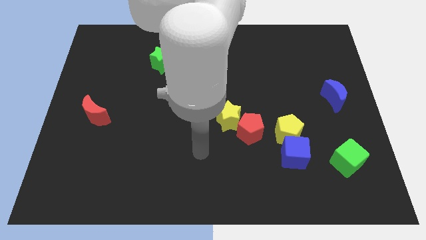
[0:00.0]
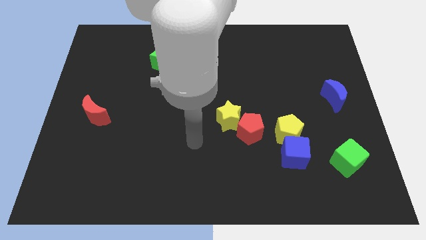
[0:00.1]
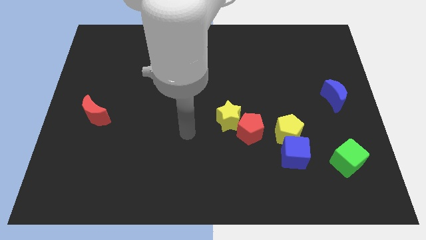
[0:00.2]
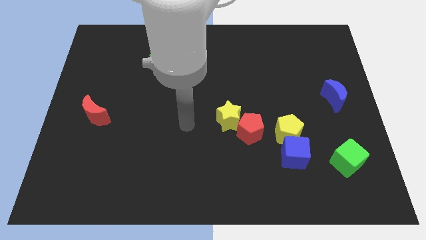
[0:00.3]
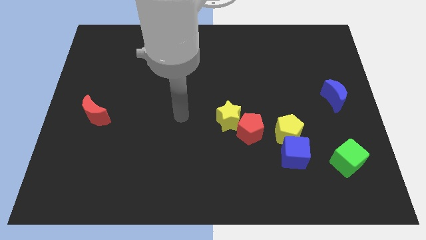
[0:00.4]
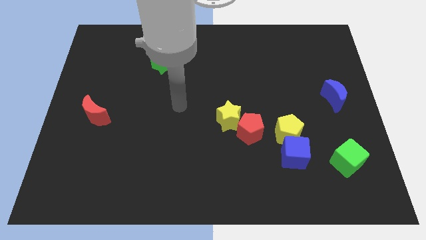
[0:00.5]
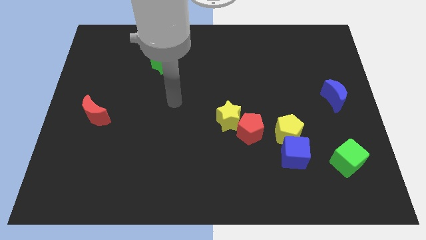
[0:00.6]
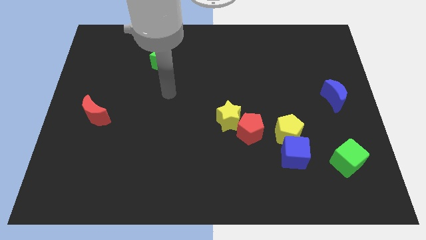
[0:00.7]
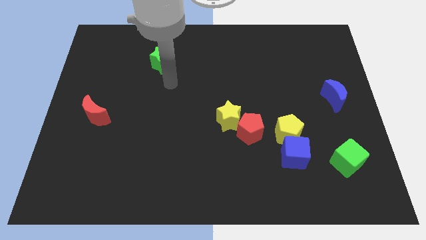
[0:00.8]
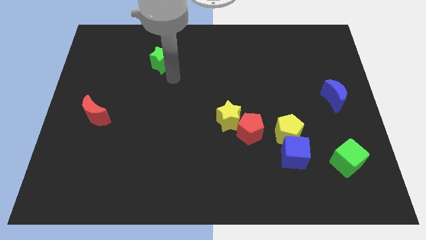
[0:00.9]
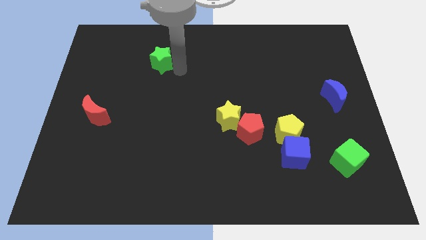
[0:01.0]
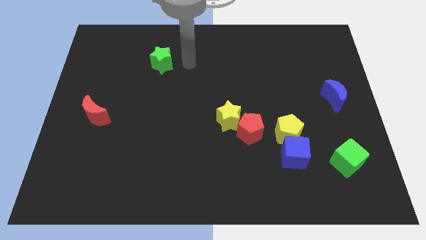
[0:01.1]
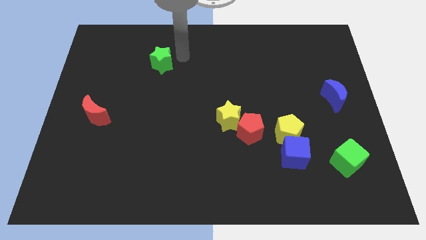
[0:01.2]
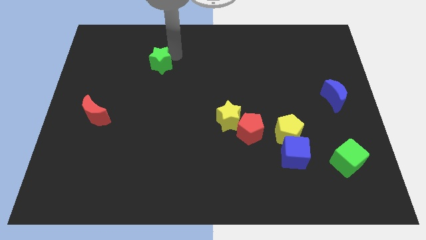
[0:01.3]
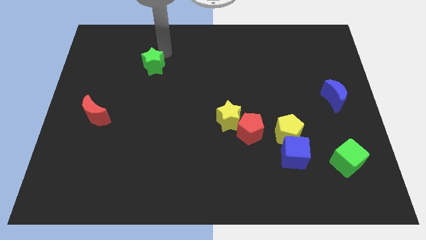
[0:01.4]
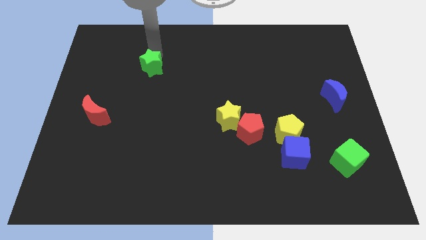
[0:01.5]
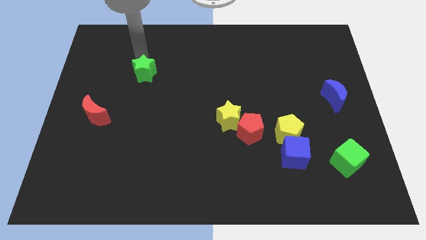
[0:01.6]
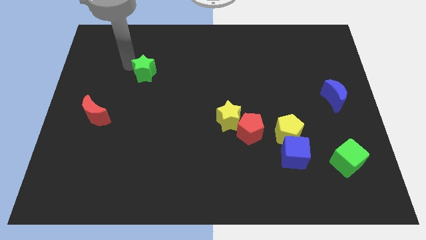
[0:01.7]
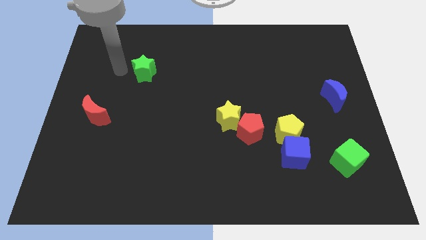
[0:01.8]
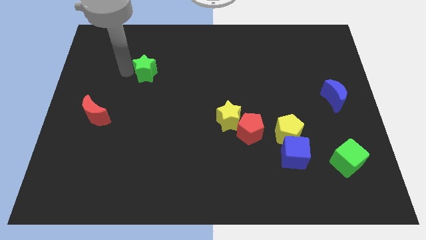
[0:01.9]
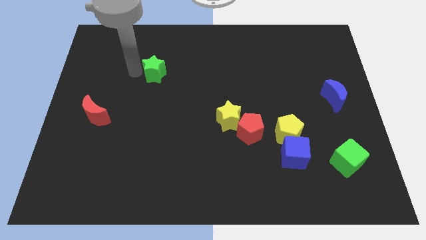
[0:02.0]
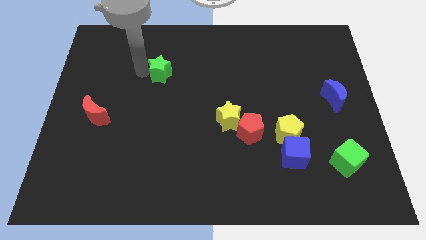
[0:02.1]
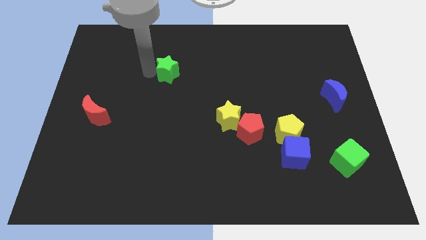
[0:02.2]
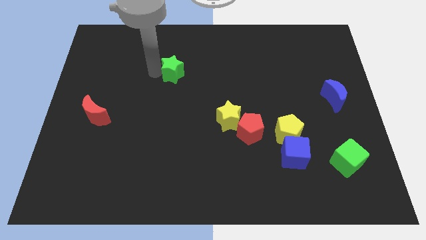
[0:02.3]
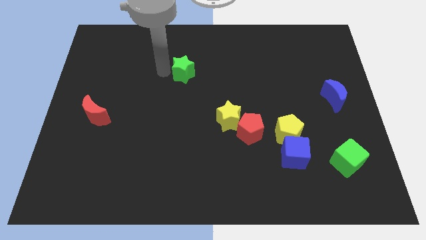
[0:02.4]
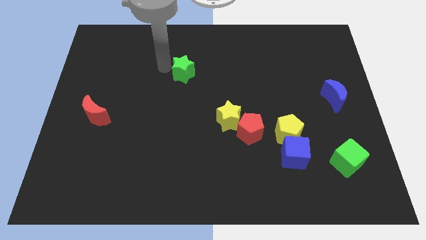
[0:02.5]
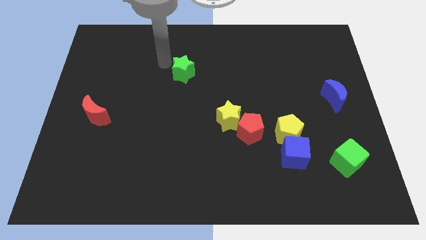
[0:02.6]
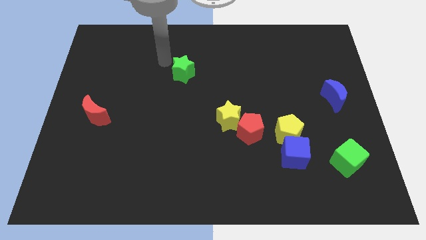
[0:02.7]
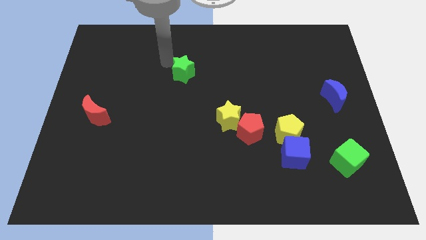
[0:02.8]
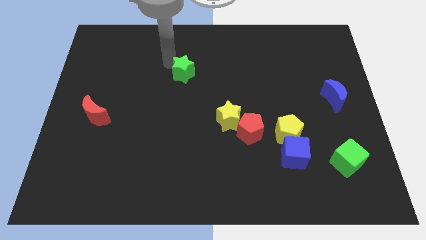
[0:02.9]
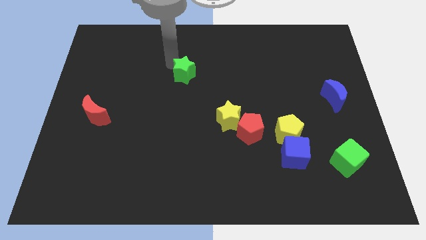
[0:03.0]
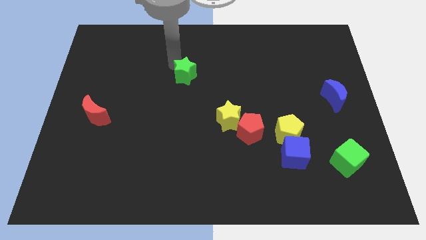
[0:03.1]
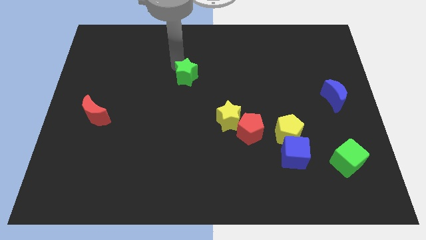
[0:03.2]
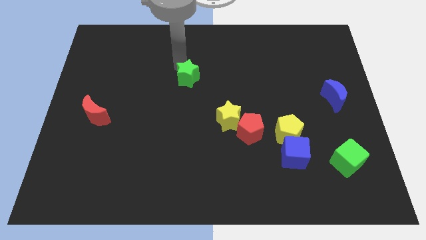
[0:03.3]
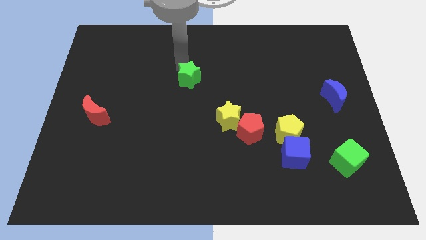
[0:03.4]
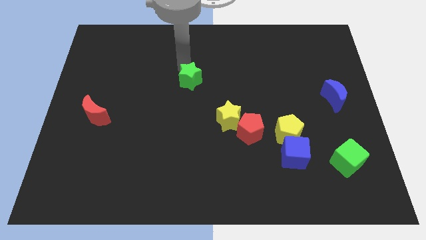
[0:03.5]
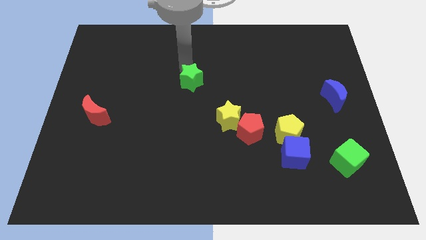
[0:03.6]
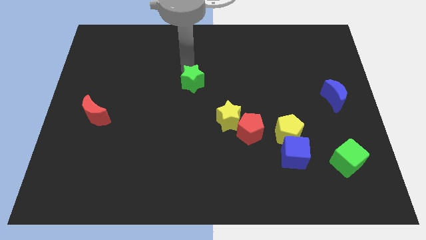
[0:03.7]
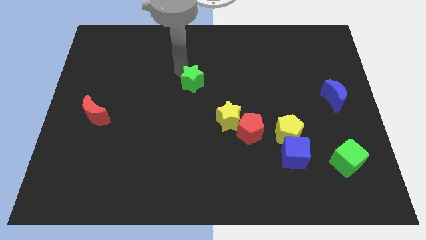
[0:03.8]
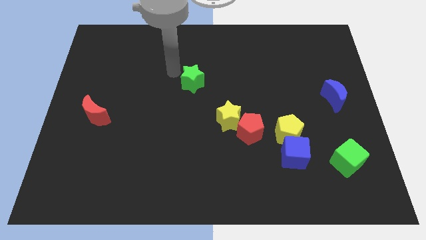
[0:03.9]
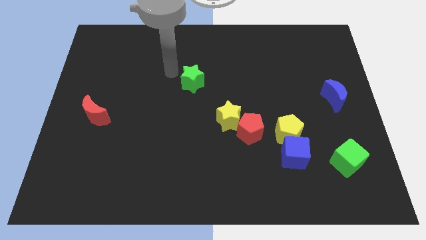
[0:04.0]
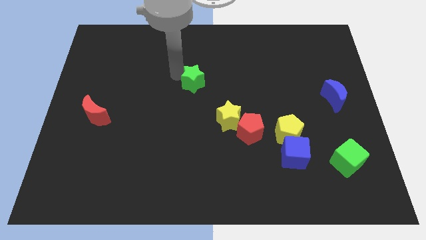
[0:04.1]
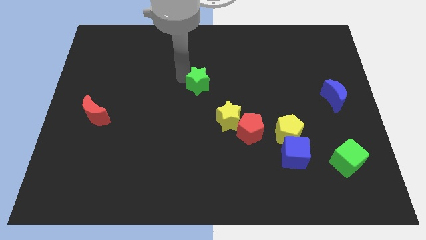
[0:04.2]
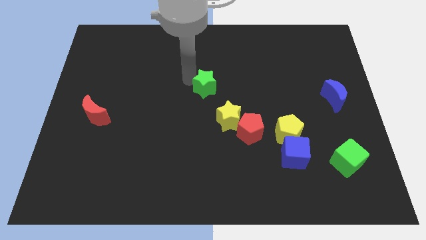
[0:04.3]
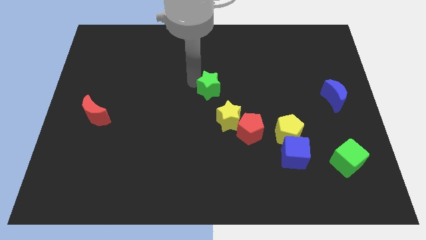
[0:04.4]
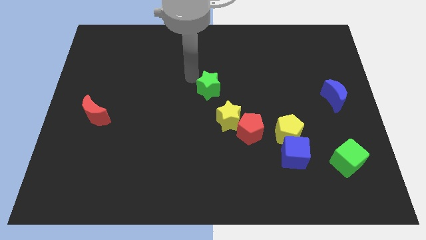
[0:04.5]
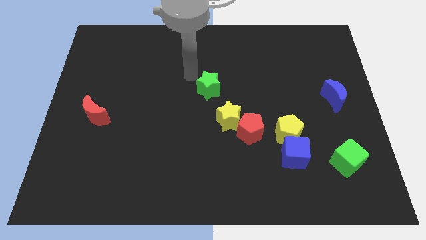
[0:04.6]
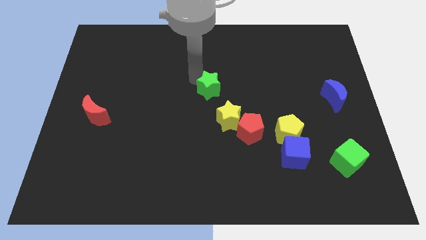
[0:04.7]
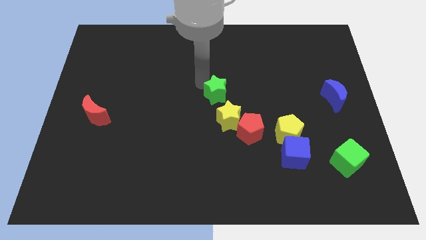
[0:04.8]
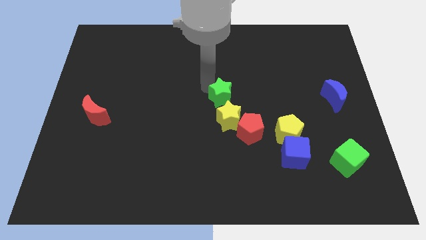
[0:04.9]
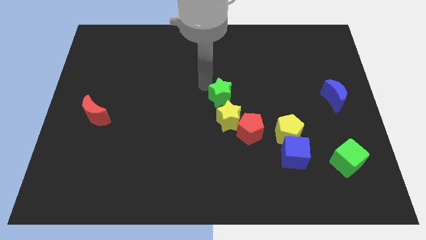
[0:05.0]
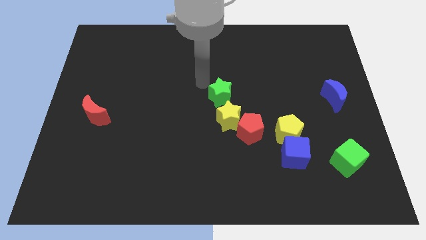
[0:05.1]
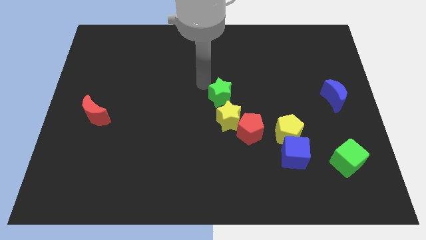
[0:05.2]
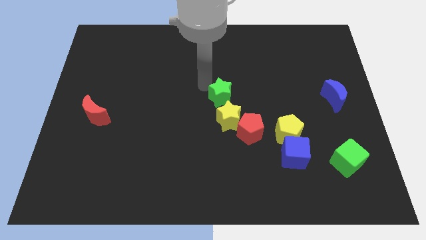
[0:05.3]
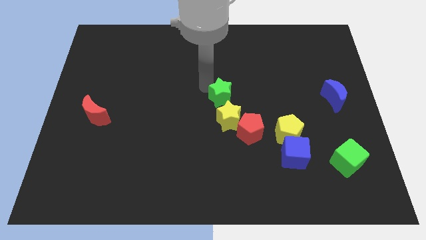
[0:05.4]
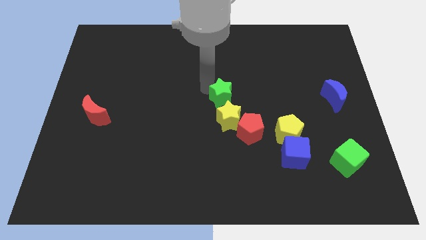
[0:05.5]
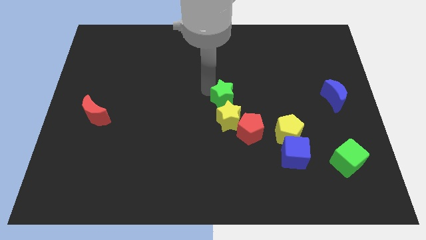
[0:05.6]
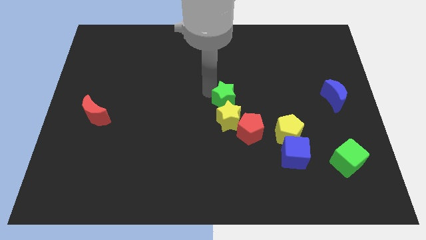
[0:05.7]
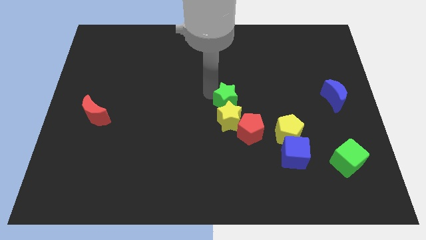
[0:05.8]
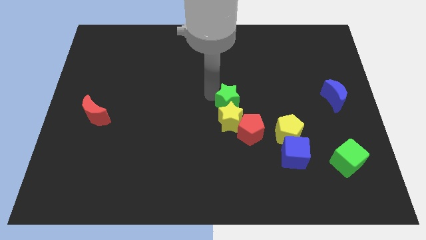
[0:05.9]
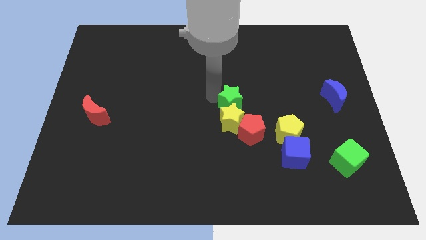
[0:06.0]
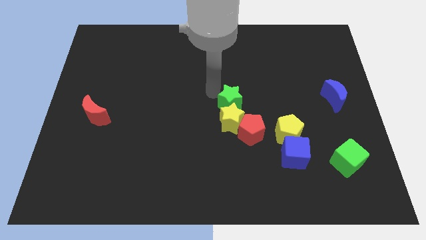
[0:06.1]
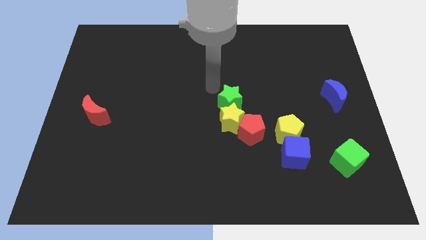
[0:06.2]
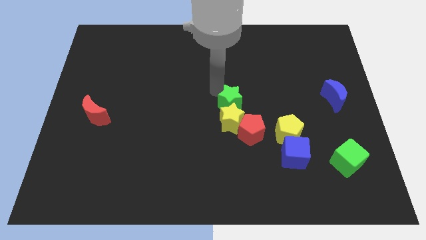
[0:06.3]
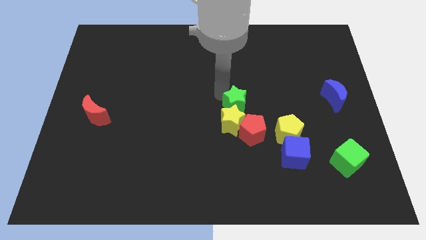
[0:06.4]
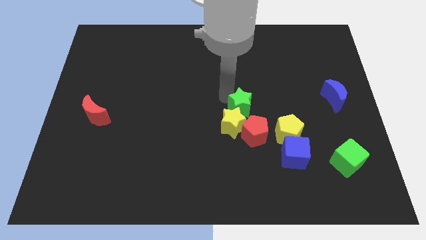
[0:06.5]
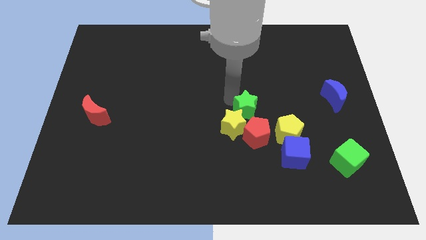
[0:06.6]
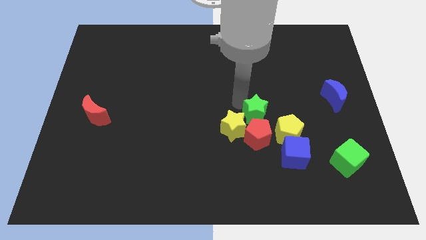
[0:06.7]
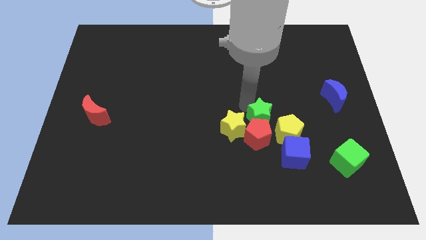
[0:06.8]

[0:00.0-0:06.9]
put the green star next to the red pentagon

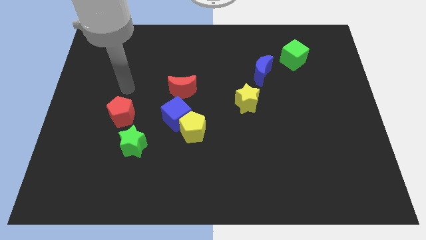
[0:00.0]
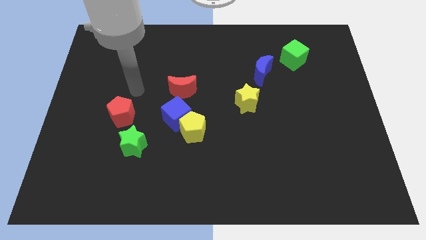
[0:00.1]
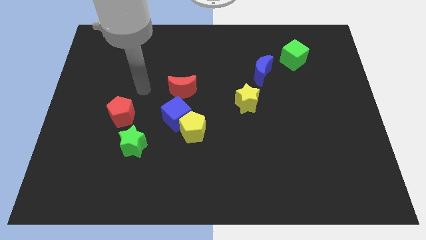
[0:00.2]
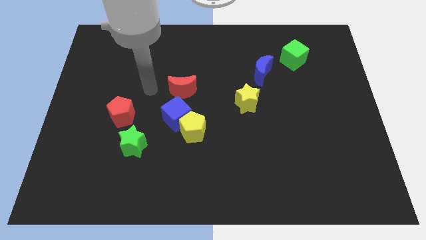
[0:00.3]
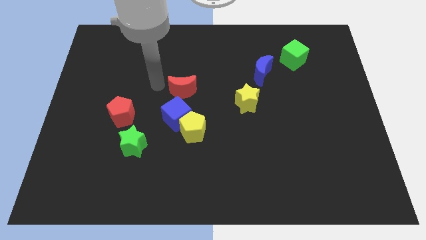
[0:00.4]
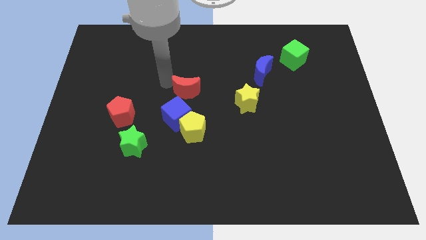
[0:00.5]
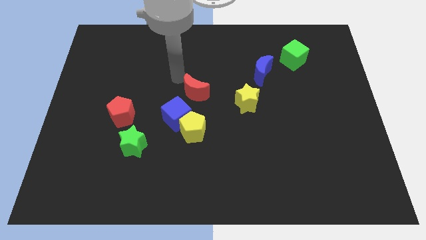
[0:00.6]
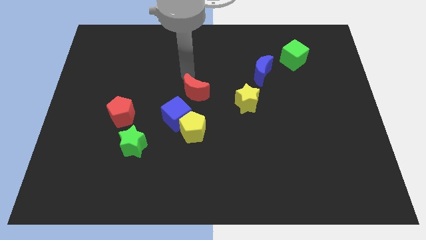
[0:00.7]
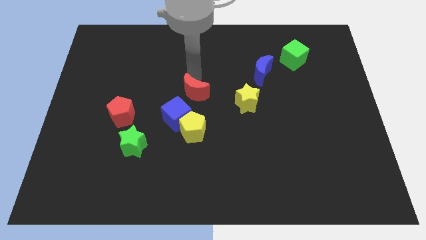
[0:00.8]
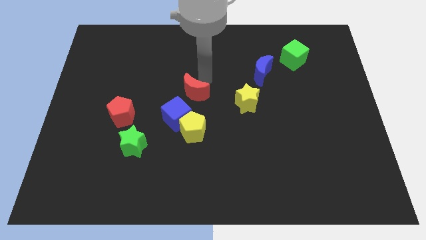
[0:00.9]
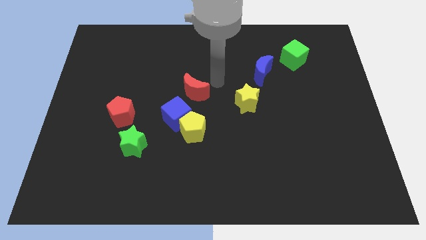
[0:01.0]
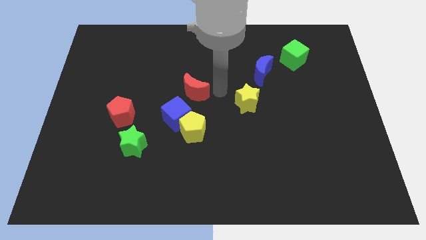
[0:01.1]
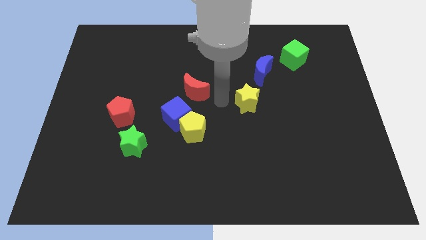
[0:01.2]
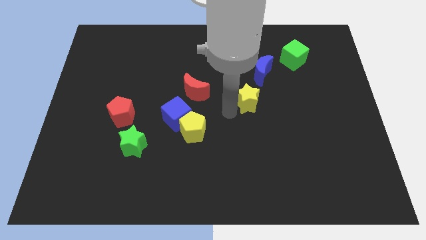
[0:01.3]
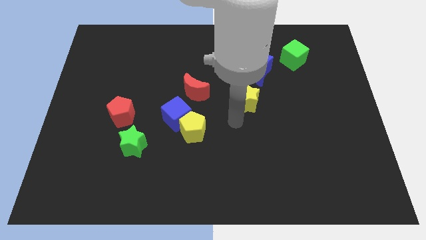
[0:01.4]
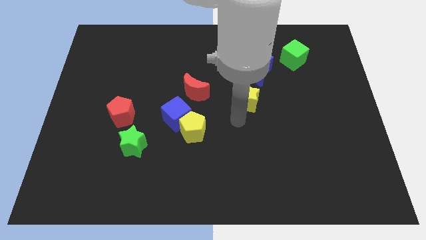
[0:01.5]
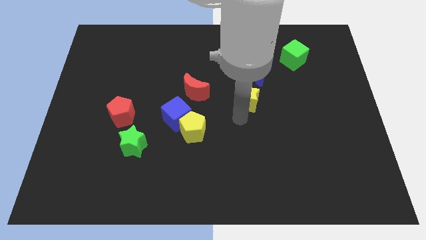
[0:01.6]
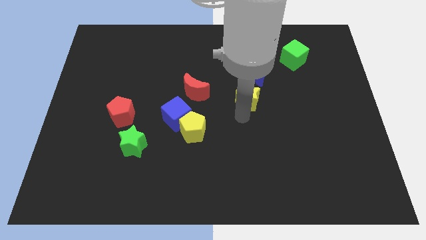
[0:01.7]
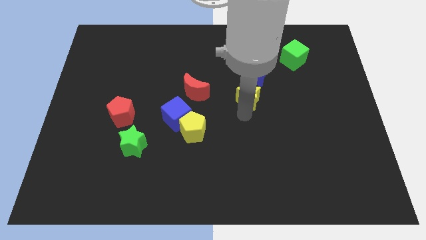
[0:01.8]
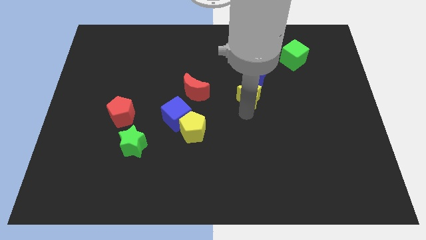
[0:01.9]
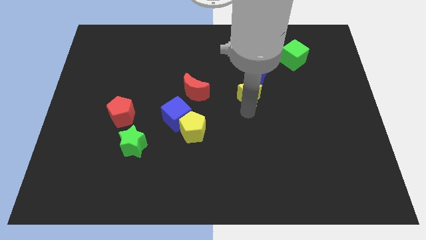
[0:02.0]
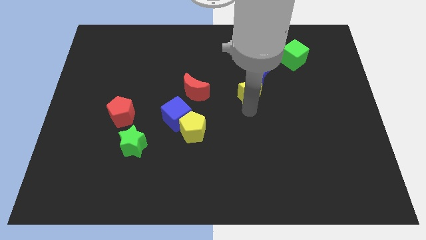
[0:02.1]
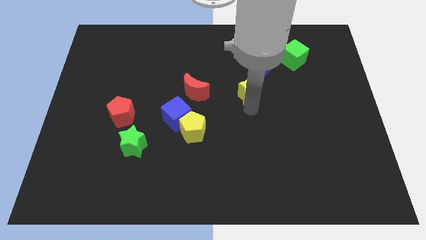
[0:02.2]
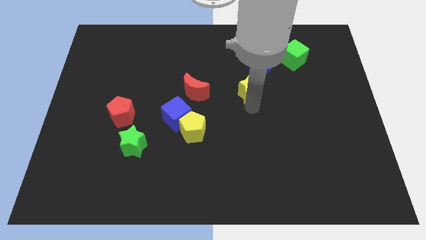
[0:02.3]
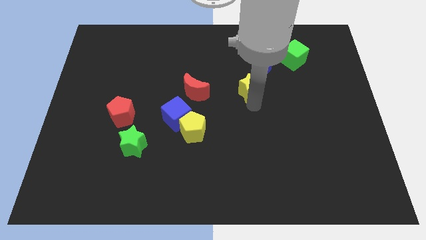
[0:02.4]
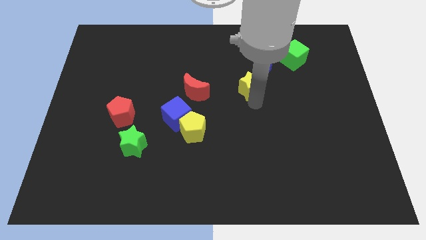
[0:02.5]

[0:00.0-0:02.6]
put the yellow star next to the blue moon
